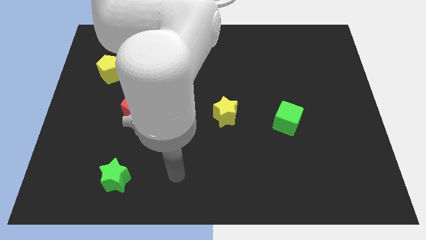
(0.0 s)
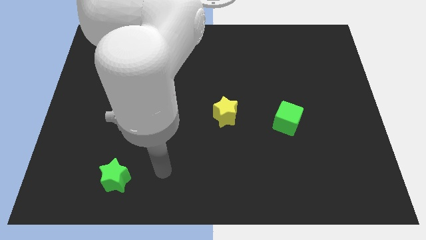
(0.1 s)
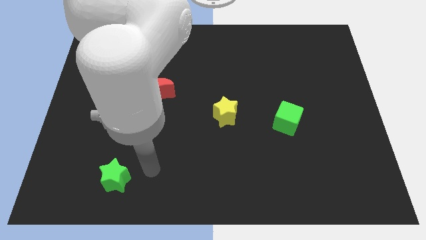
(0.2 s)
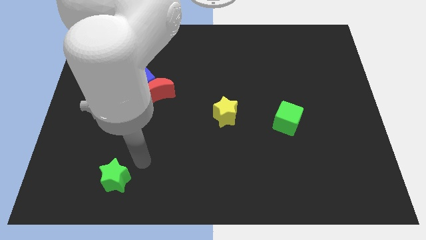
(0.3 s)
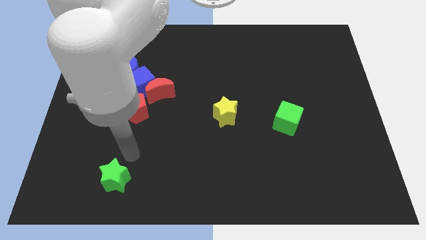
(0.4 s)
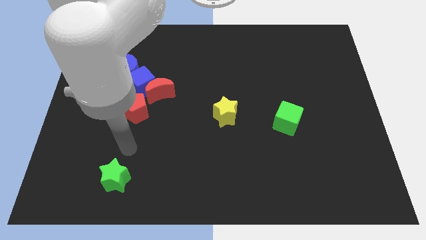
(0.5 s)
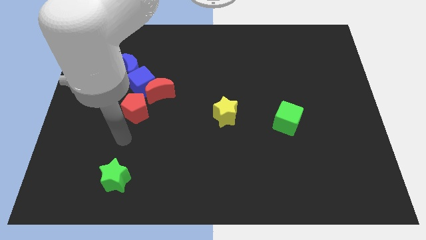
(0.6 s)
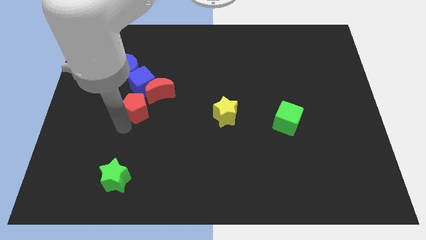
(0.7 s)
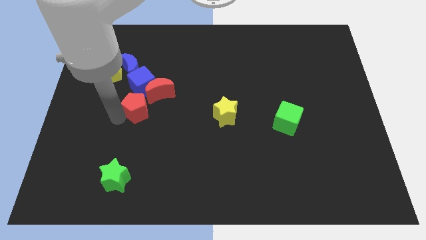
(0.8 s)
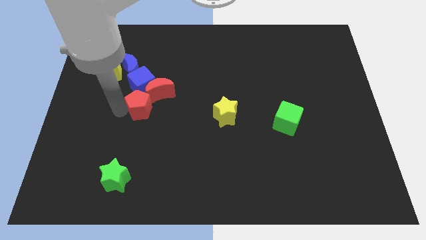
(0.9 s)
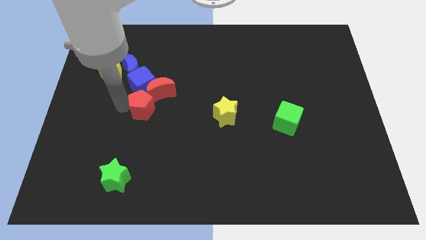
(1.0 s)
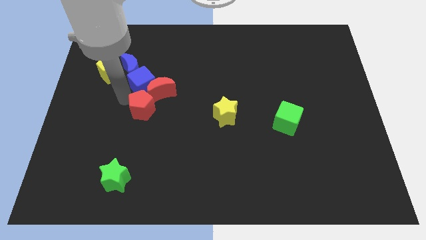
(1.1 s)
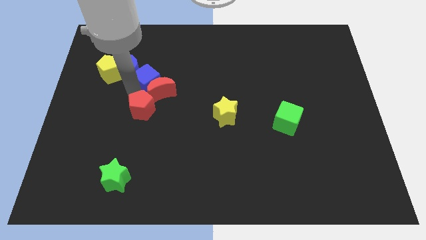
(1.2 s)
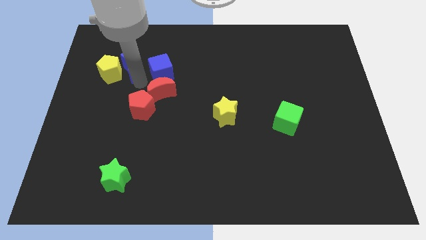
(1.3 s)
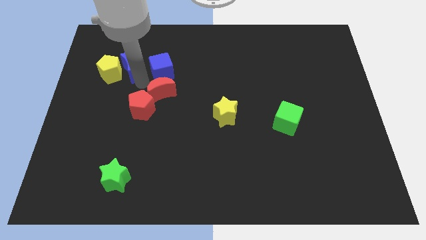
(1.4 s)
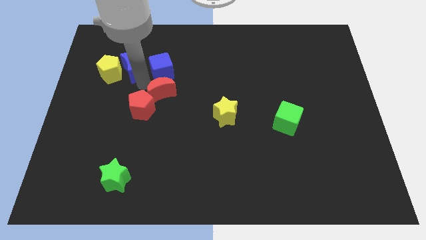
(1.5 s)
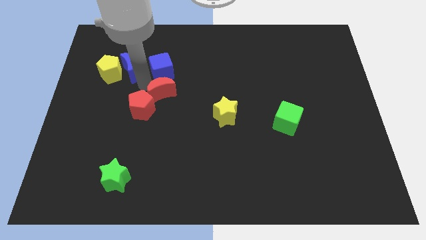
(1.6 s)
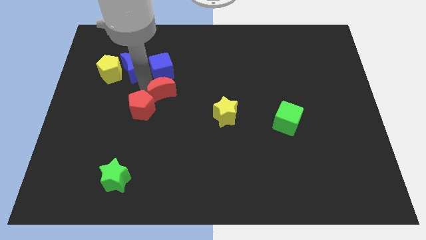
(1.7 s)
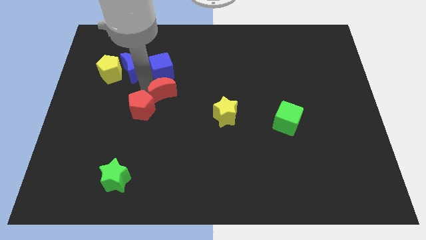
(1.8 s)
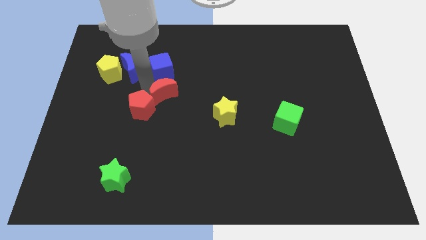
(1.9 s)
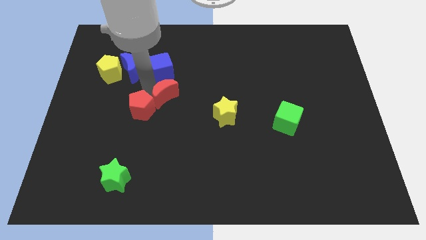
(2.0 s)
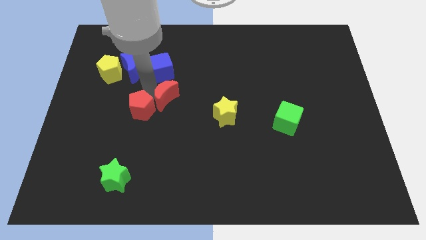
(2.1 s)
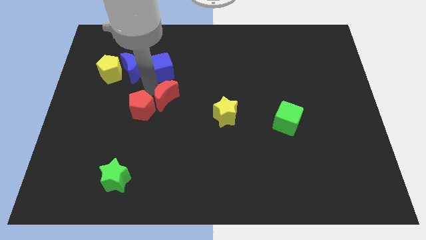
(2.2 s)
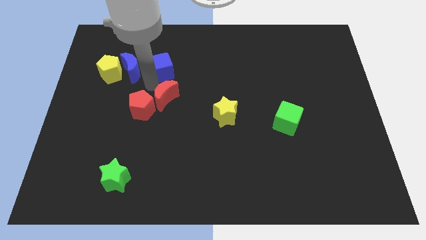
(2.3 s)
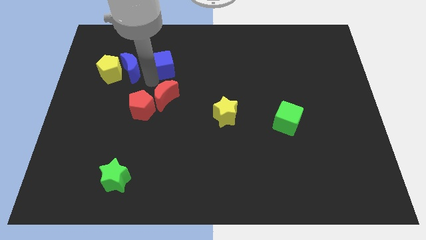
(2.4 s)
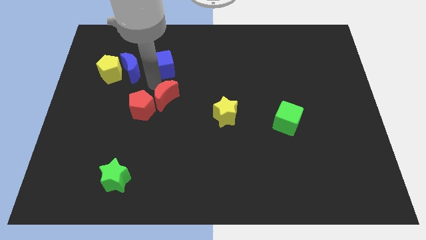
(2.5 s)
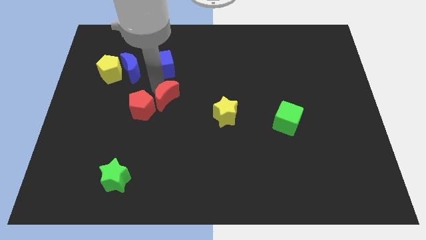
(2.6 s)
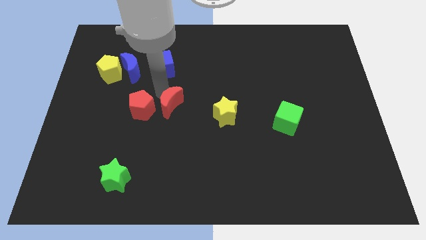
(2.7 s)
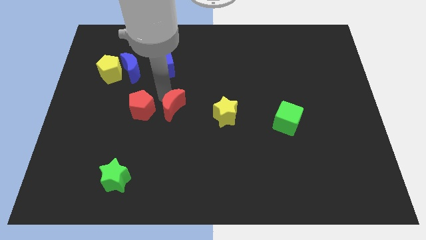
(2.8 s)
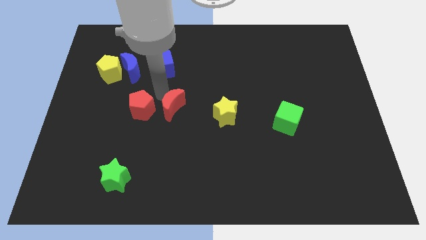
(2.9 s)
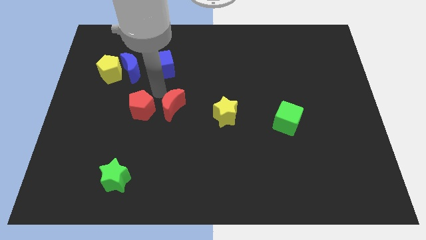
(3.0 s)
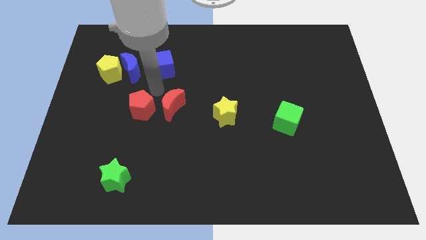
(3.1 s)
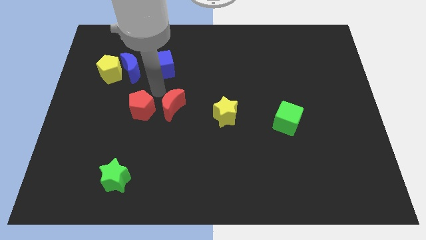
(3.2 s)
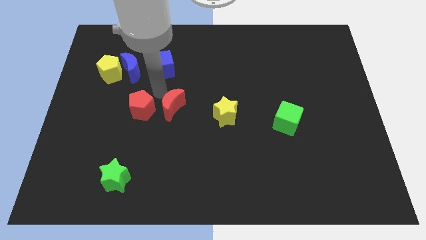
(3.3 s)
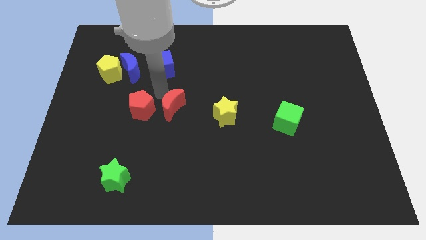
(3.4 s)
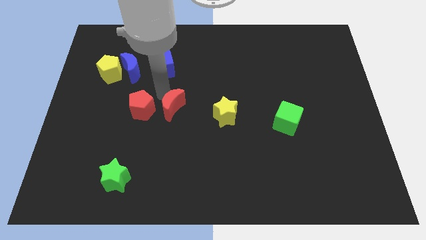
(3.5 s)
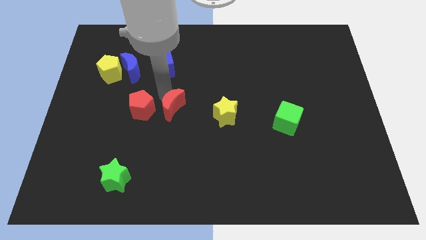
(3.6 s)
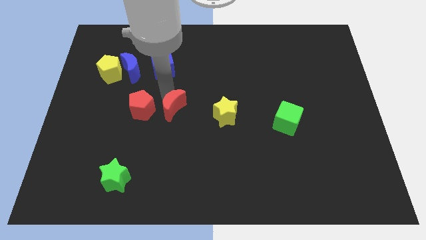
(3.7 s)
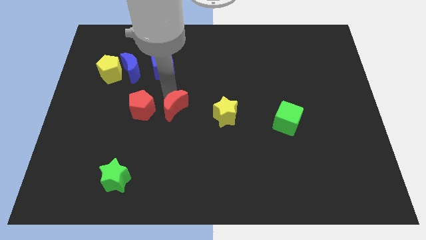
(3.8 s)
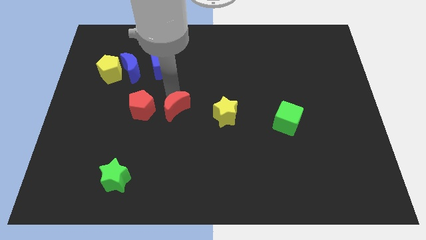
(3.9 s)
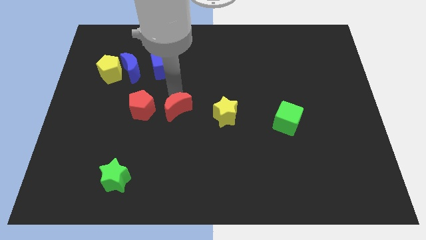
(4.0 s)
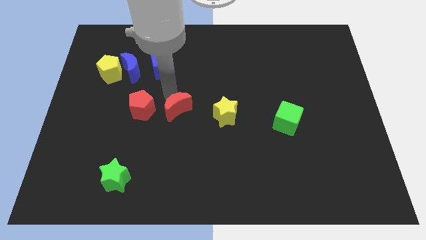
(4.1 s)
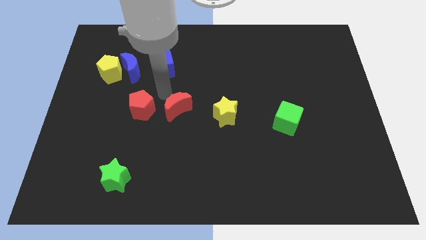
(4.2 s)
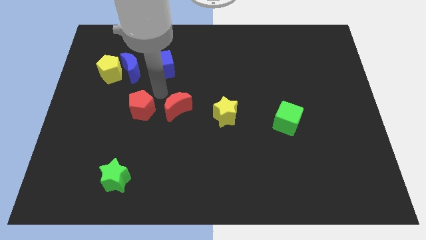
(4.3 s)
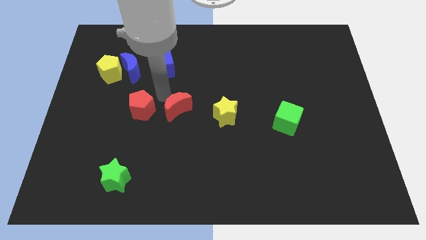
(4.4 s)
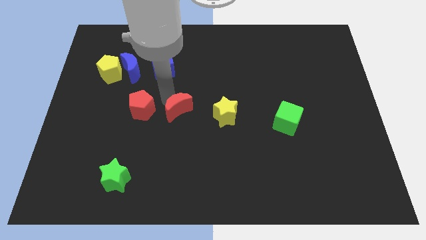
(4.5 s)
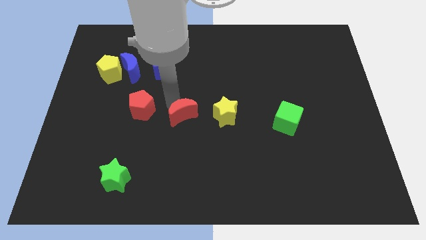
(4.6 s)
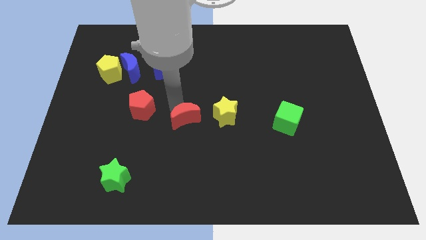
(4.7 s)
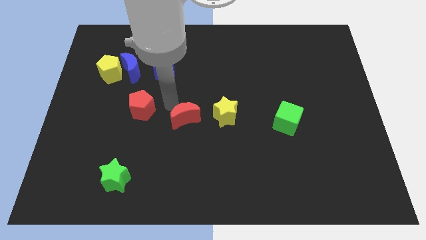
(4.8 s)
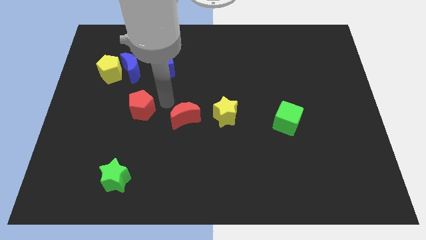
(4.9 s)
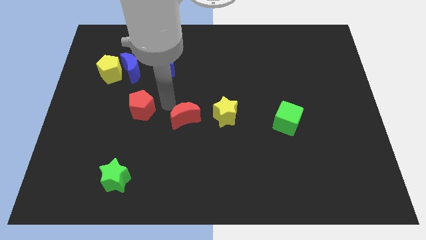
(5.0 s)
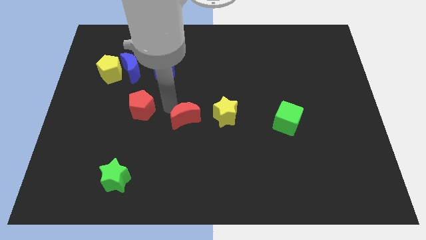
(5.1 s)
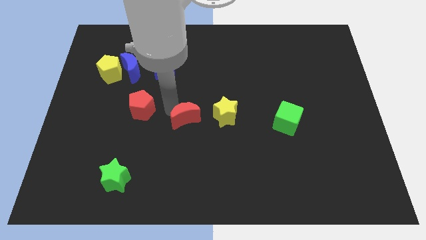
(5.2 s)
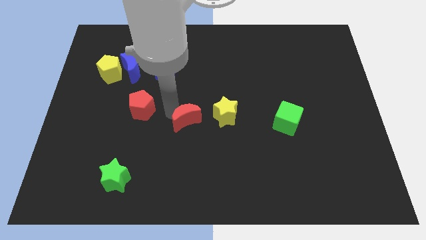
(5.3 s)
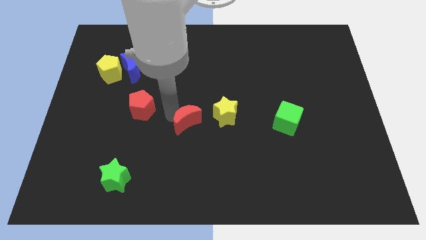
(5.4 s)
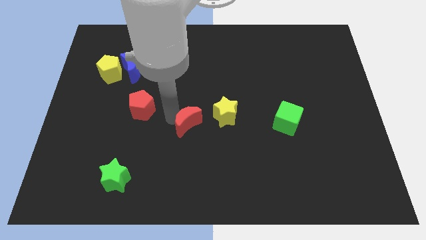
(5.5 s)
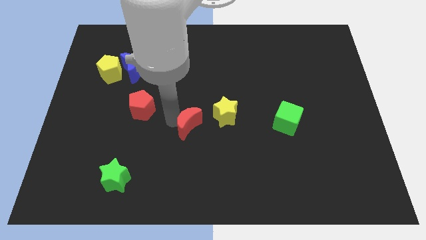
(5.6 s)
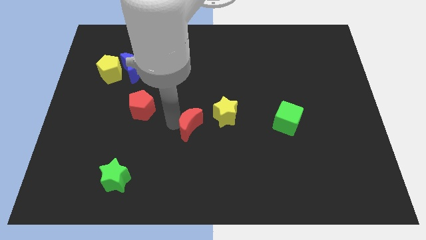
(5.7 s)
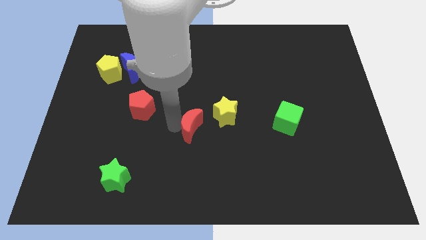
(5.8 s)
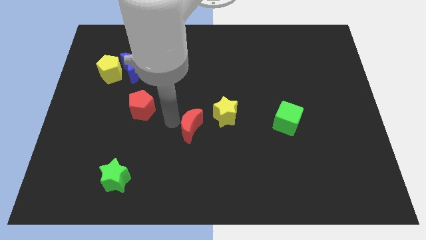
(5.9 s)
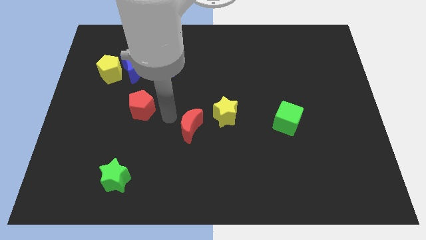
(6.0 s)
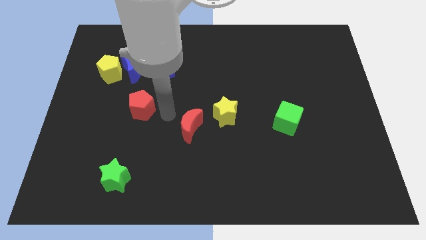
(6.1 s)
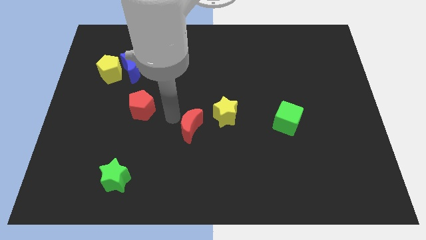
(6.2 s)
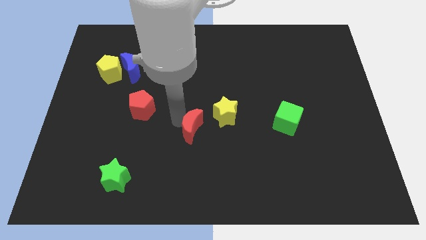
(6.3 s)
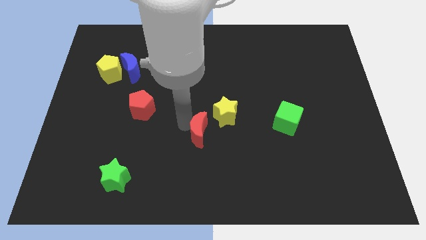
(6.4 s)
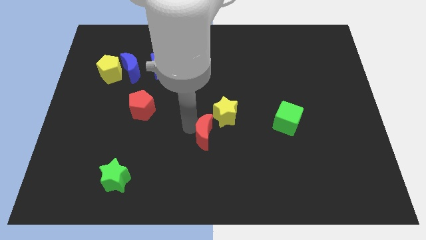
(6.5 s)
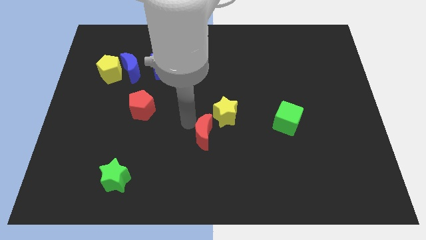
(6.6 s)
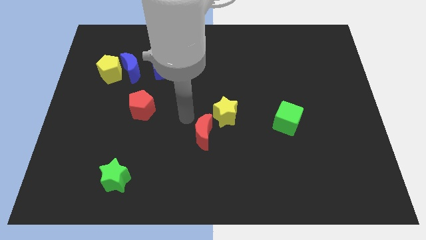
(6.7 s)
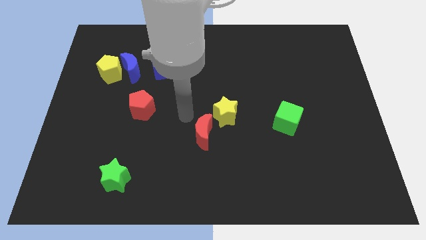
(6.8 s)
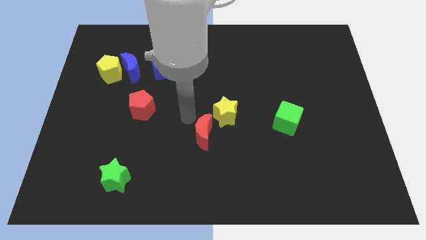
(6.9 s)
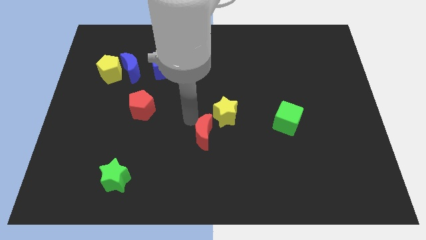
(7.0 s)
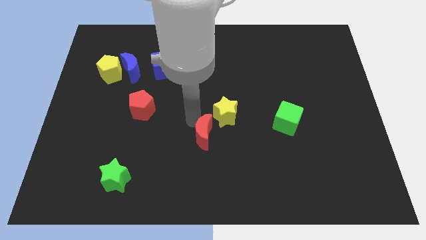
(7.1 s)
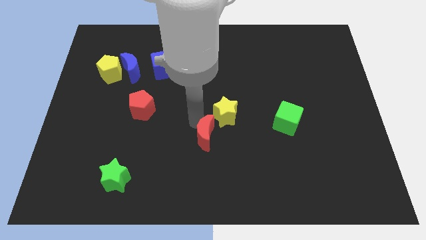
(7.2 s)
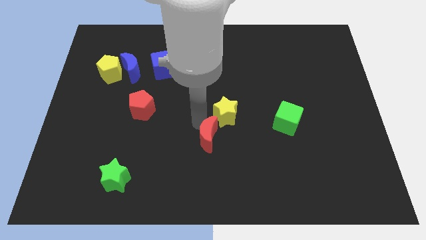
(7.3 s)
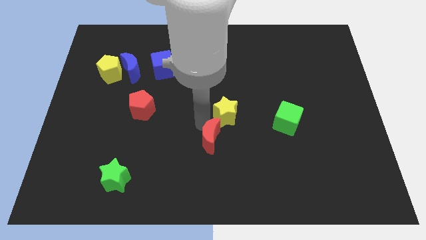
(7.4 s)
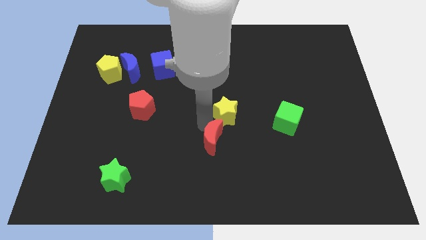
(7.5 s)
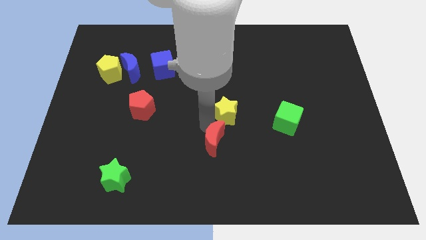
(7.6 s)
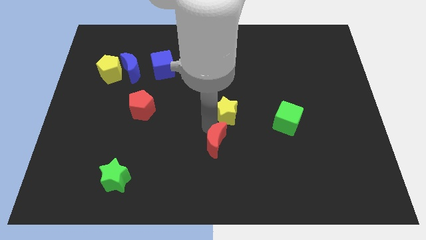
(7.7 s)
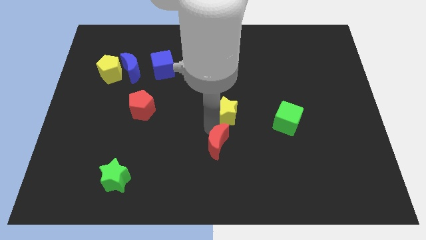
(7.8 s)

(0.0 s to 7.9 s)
slide the red moon downwards and to the right
